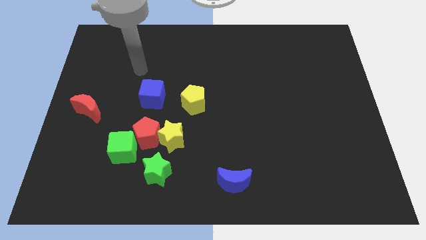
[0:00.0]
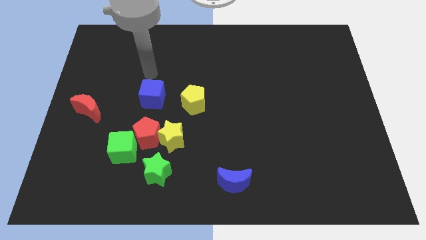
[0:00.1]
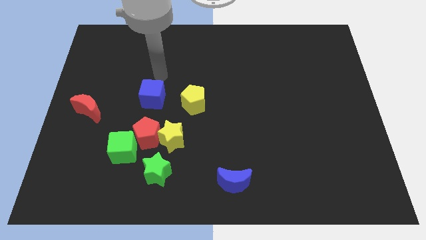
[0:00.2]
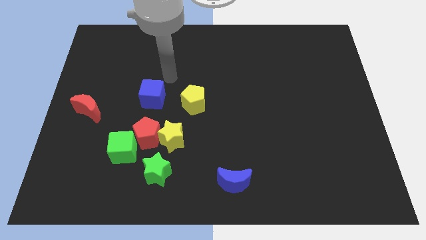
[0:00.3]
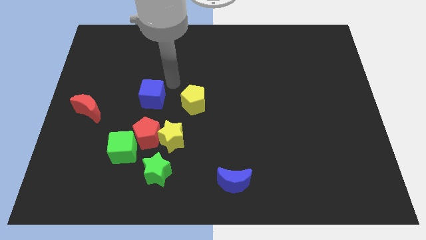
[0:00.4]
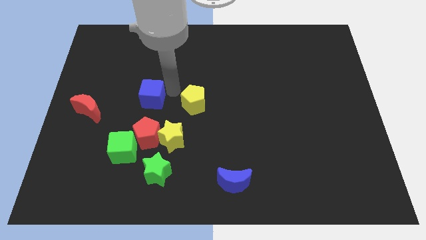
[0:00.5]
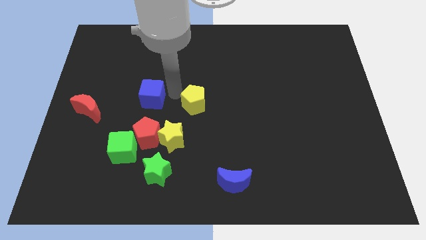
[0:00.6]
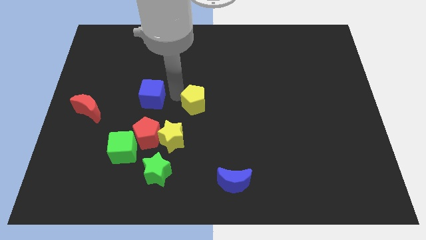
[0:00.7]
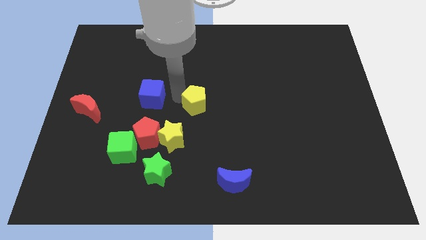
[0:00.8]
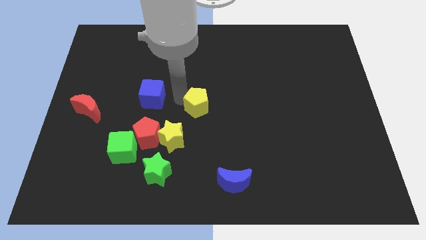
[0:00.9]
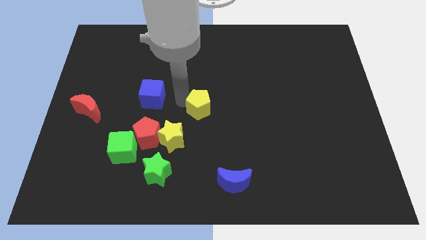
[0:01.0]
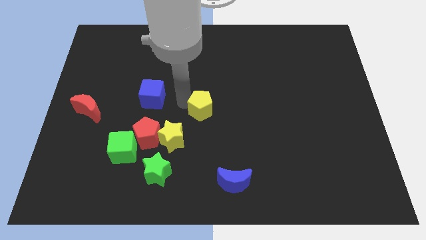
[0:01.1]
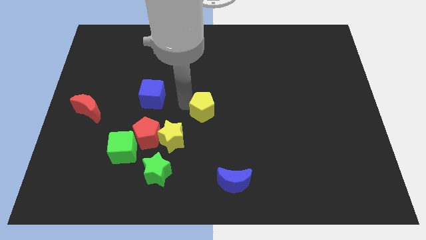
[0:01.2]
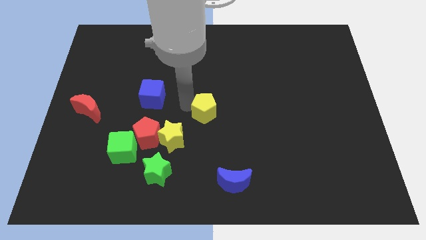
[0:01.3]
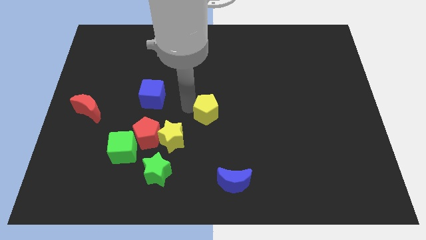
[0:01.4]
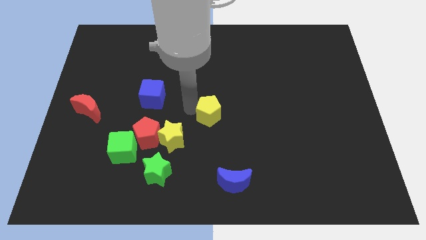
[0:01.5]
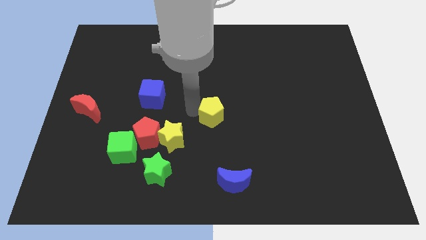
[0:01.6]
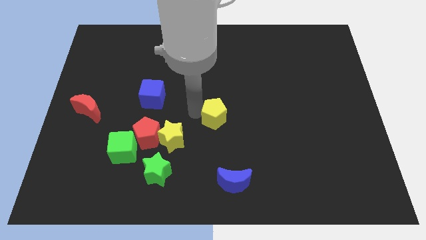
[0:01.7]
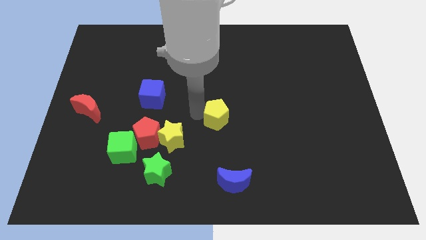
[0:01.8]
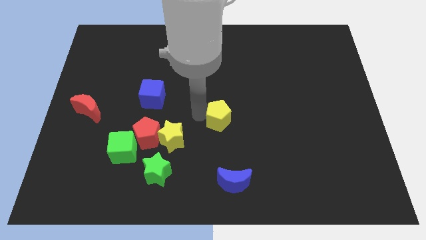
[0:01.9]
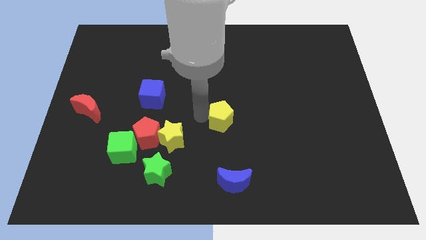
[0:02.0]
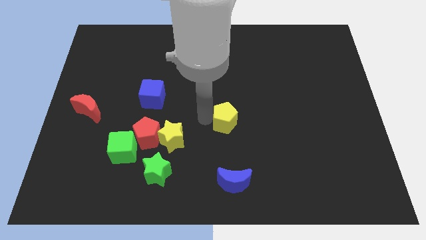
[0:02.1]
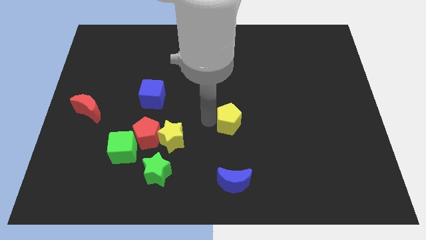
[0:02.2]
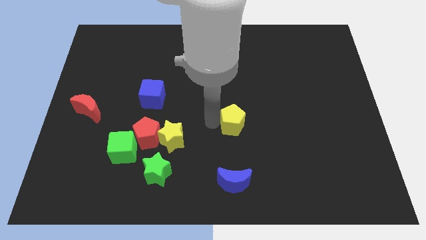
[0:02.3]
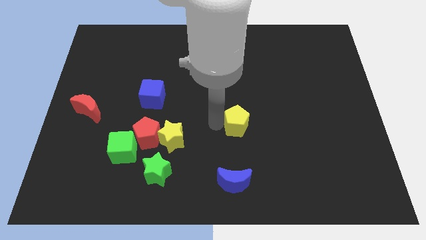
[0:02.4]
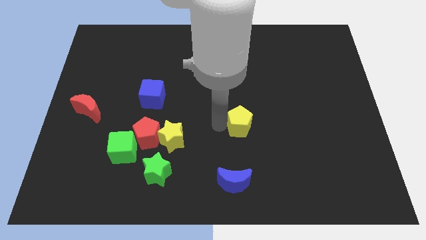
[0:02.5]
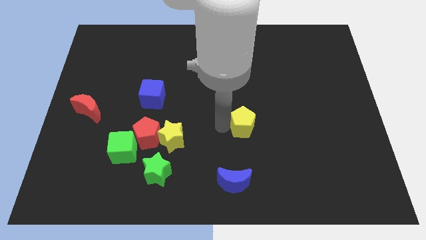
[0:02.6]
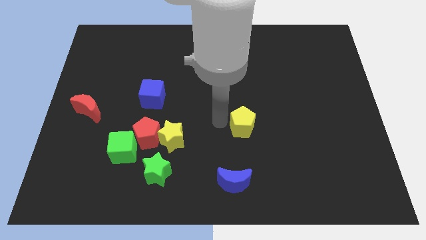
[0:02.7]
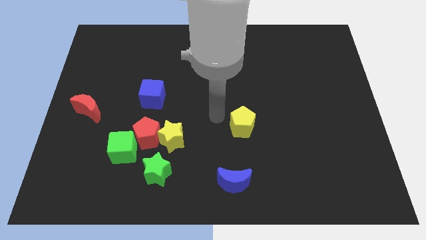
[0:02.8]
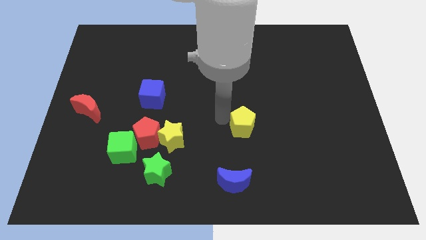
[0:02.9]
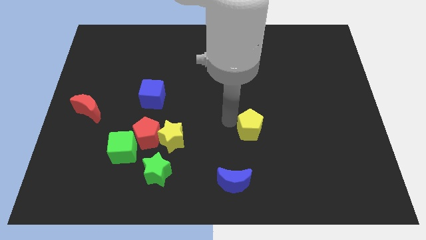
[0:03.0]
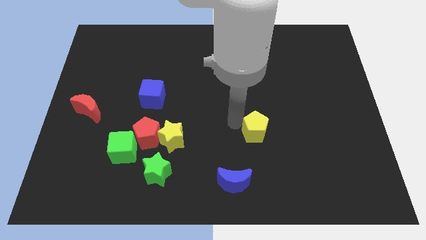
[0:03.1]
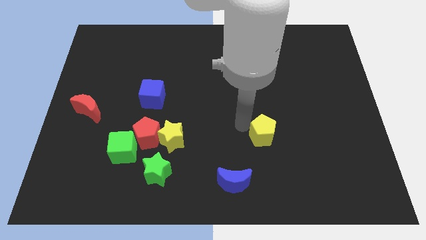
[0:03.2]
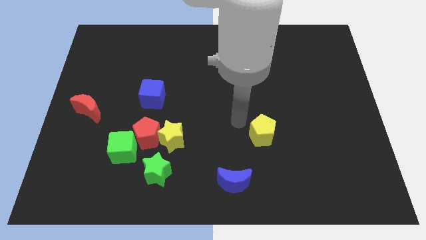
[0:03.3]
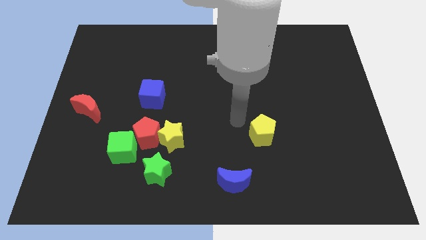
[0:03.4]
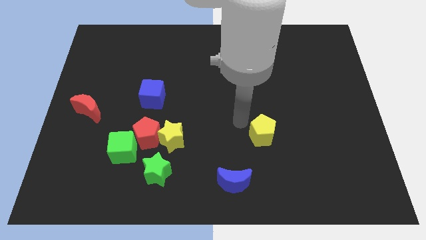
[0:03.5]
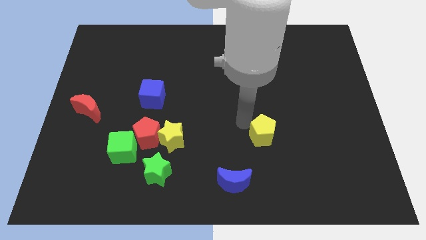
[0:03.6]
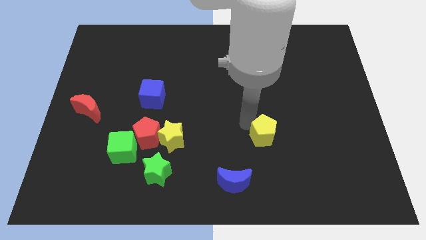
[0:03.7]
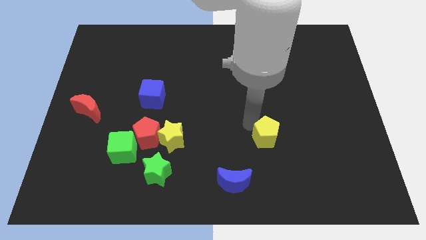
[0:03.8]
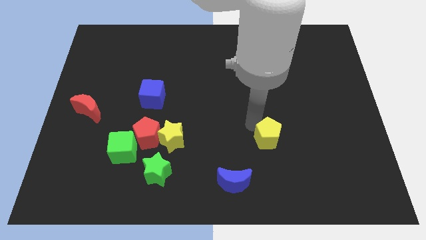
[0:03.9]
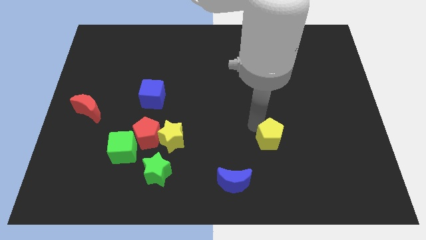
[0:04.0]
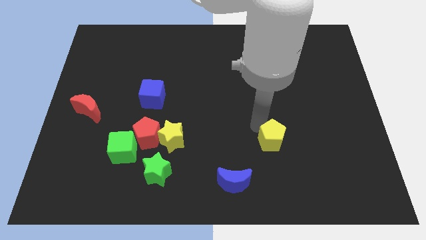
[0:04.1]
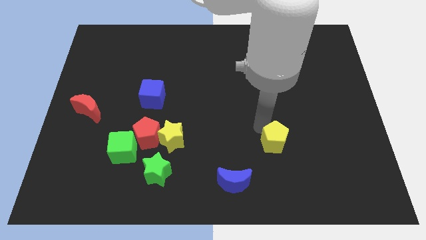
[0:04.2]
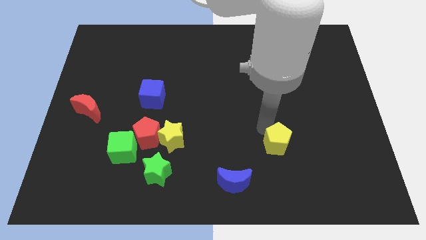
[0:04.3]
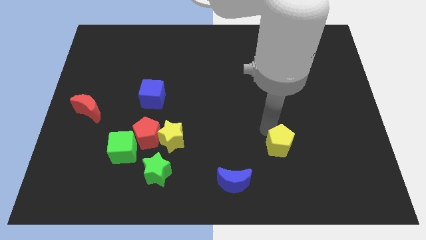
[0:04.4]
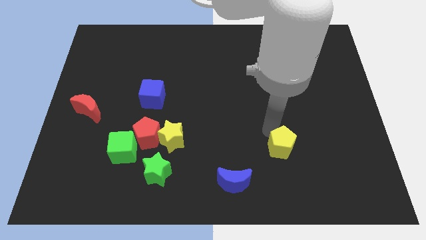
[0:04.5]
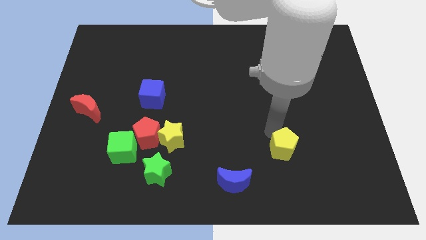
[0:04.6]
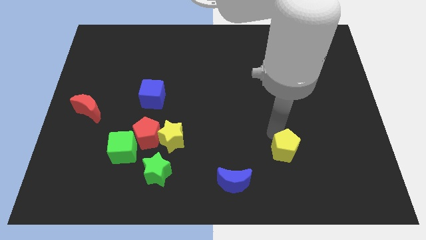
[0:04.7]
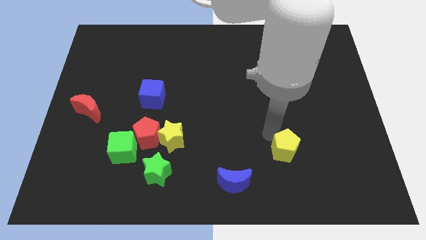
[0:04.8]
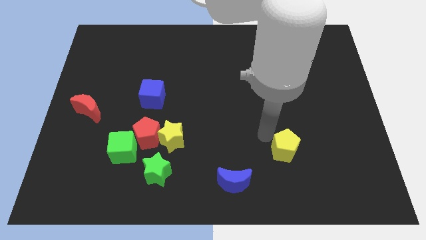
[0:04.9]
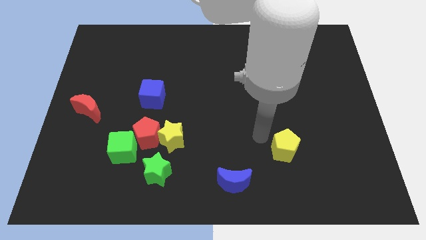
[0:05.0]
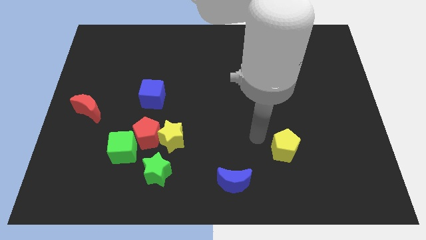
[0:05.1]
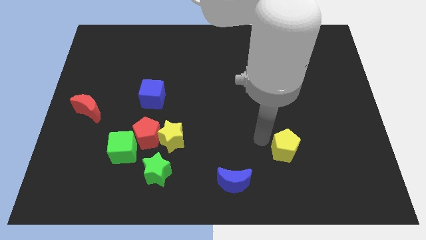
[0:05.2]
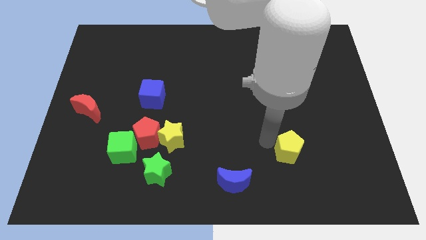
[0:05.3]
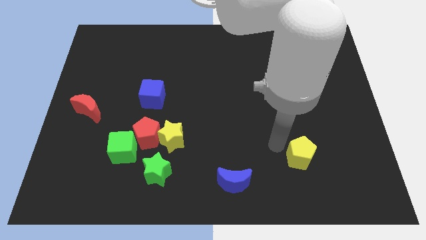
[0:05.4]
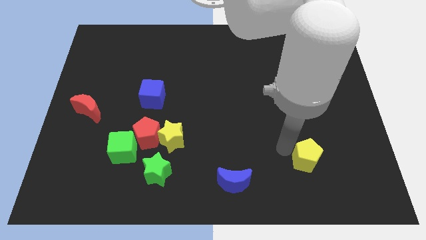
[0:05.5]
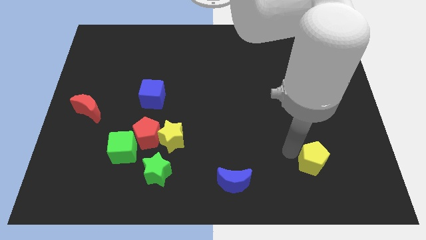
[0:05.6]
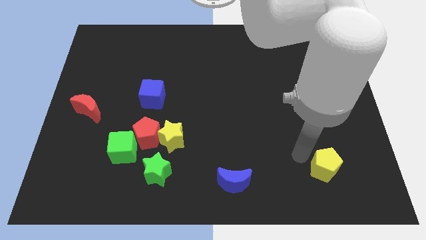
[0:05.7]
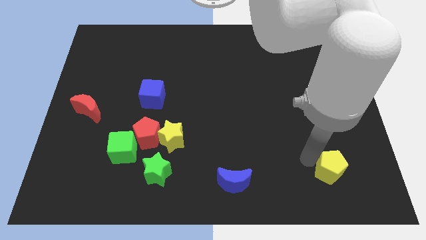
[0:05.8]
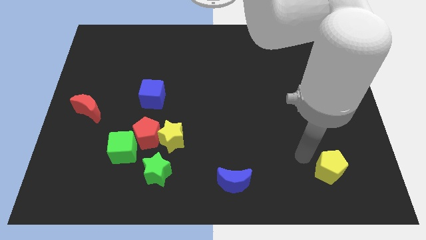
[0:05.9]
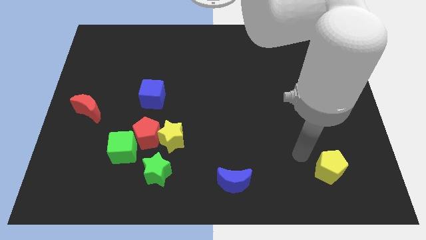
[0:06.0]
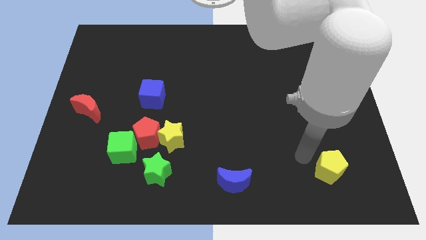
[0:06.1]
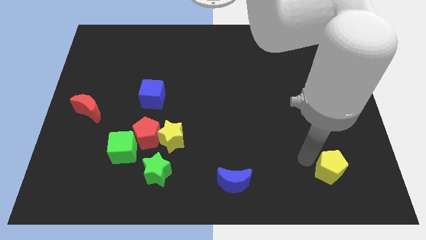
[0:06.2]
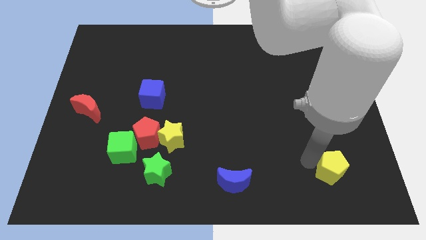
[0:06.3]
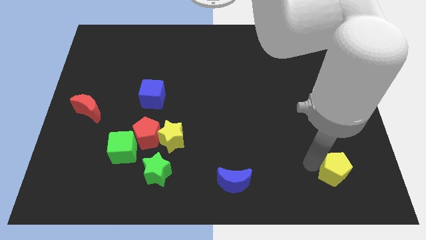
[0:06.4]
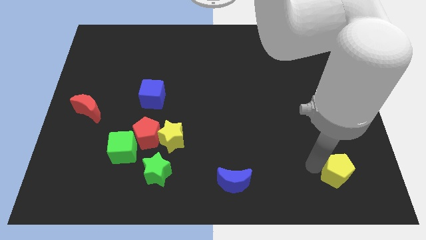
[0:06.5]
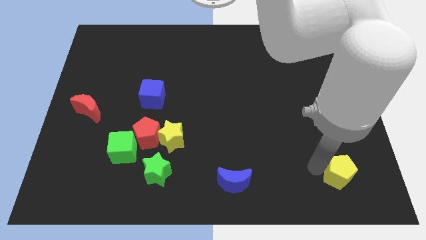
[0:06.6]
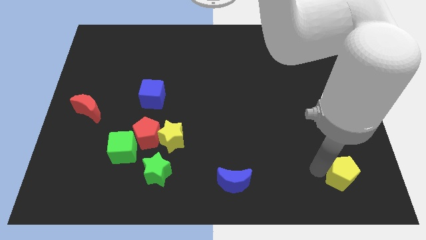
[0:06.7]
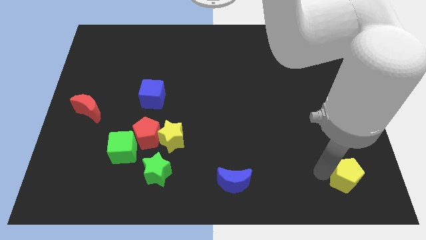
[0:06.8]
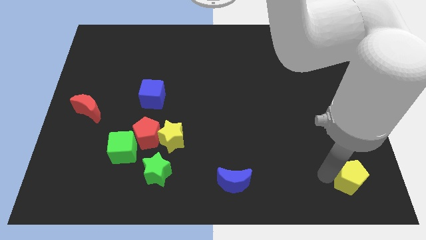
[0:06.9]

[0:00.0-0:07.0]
move the yellow pentagon to the bottom right corner
